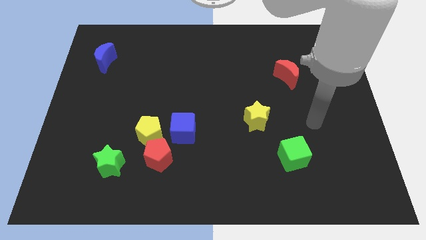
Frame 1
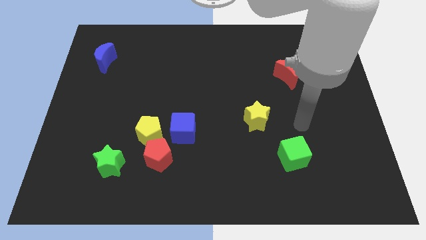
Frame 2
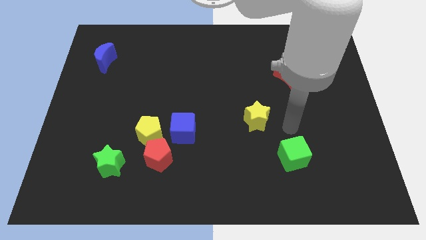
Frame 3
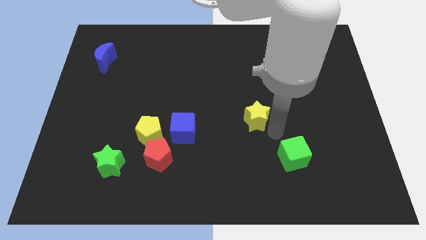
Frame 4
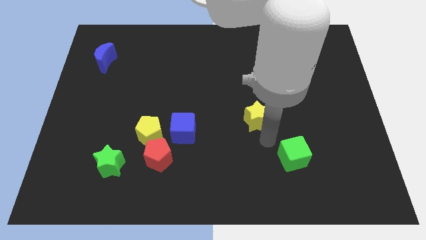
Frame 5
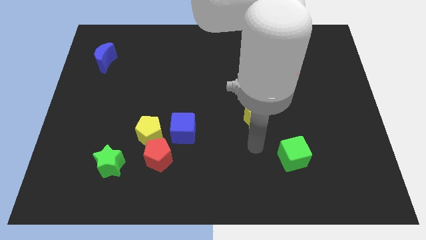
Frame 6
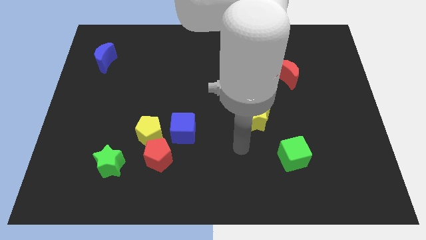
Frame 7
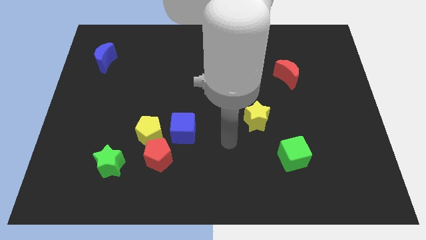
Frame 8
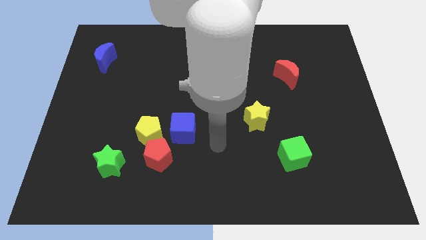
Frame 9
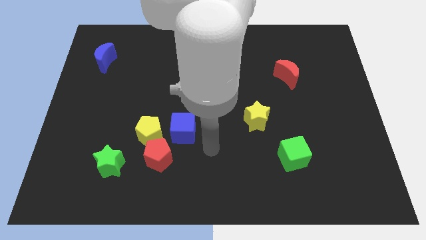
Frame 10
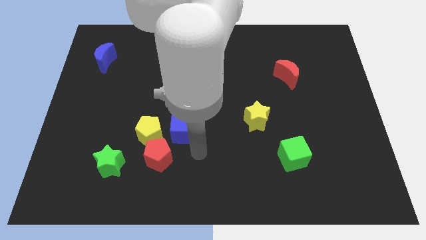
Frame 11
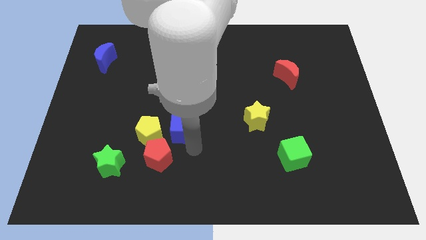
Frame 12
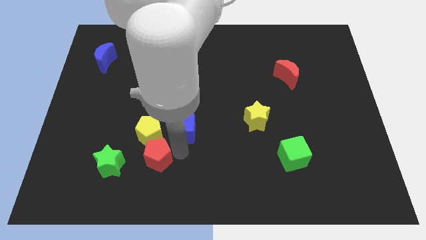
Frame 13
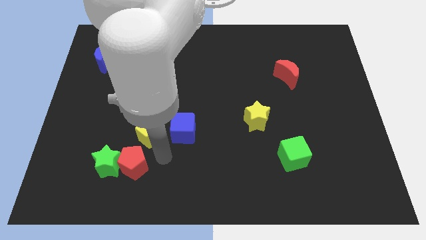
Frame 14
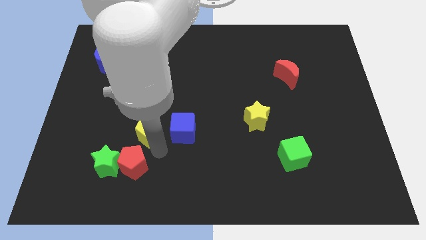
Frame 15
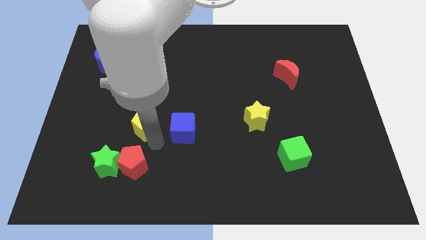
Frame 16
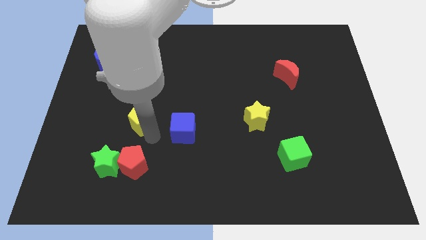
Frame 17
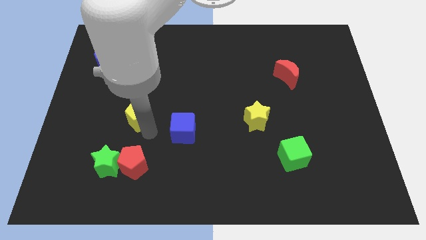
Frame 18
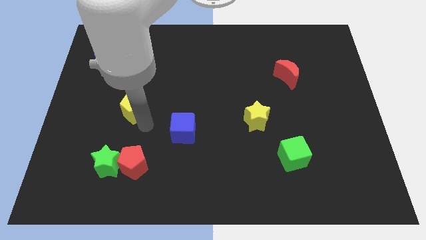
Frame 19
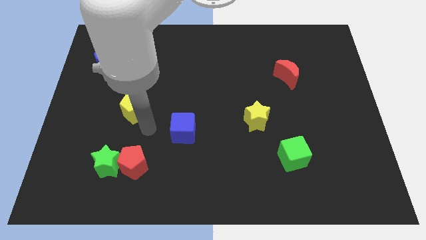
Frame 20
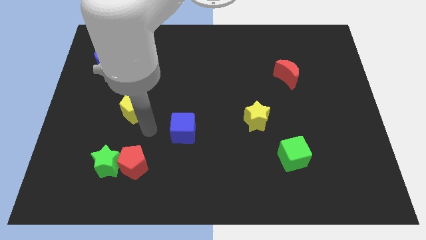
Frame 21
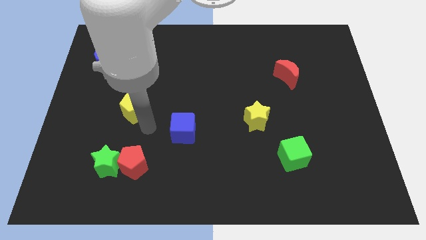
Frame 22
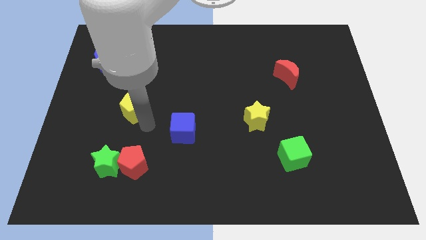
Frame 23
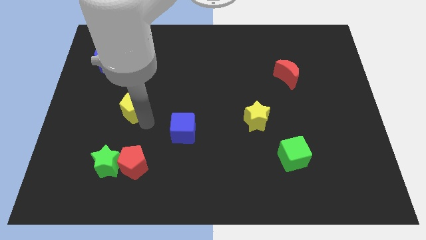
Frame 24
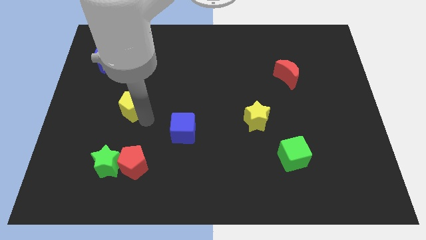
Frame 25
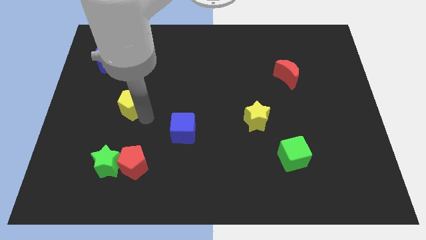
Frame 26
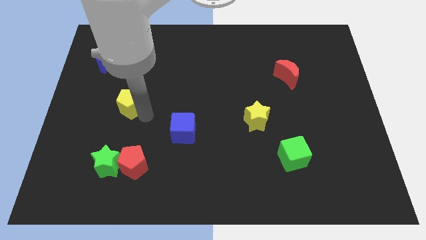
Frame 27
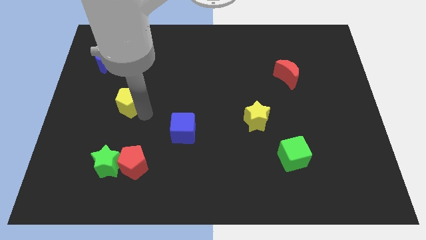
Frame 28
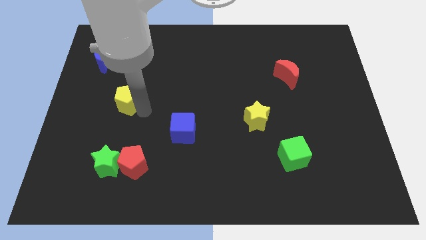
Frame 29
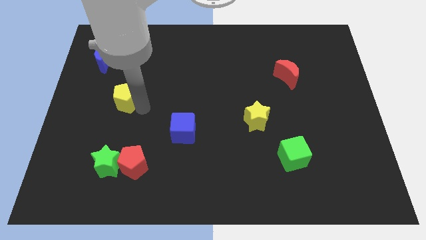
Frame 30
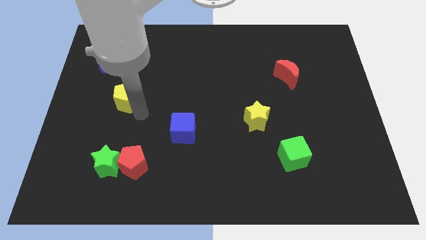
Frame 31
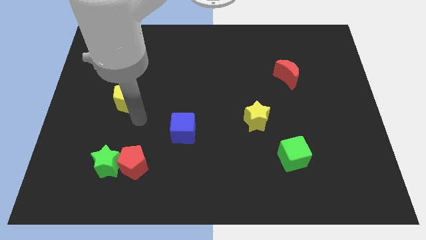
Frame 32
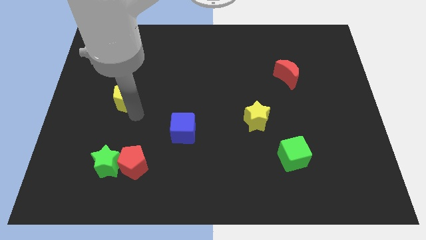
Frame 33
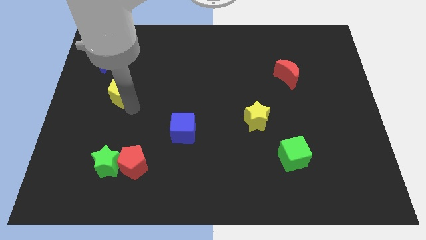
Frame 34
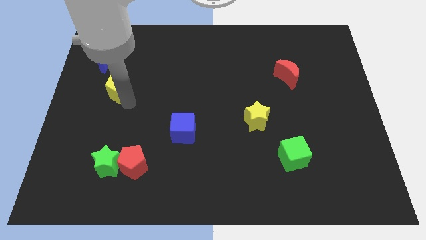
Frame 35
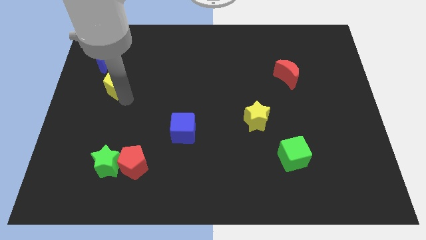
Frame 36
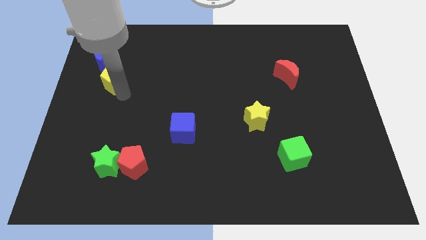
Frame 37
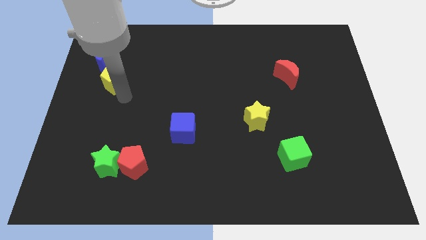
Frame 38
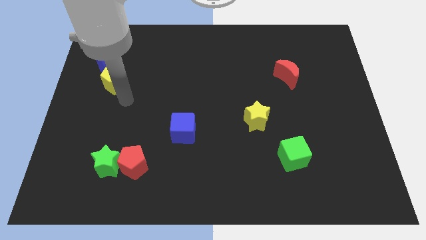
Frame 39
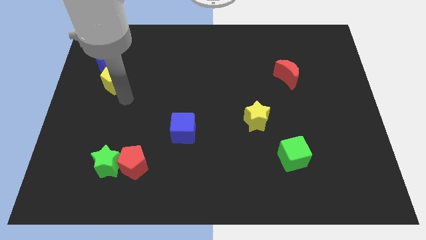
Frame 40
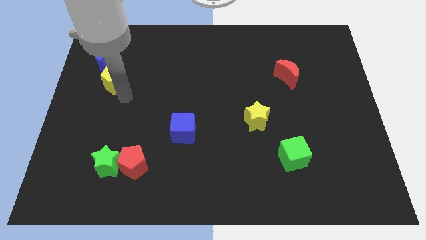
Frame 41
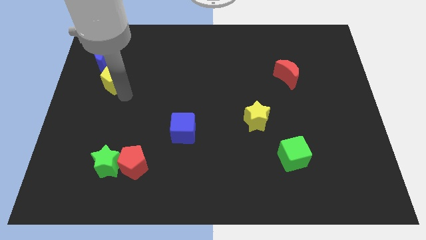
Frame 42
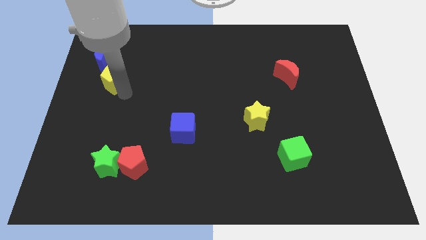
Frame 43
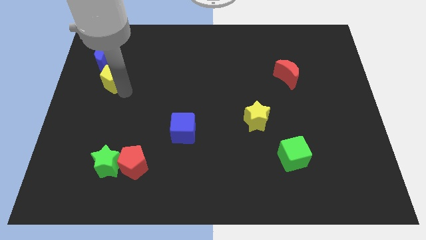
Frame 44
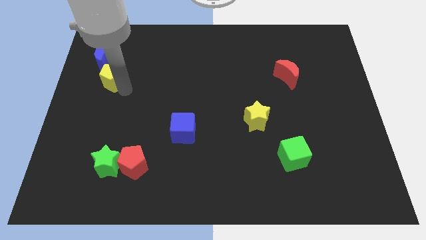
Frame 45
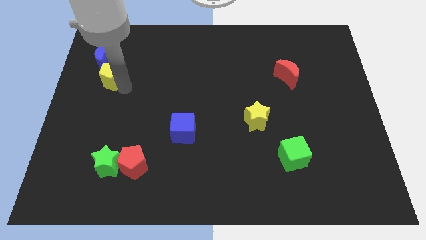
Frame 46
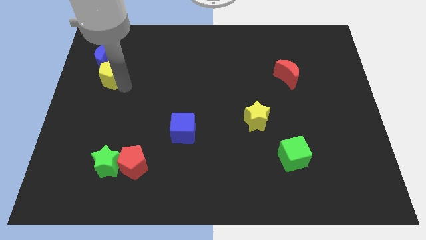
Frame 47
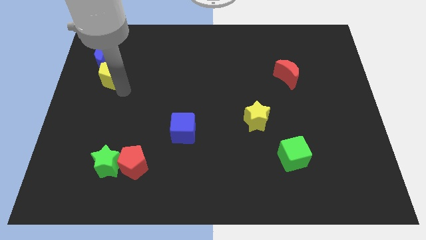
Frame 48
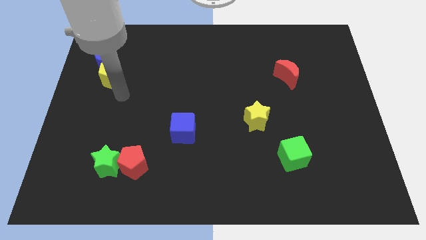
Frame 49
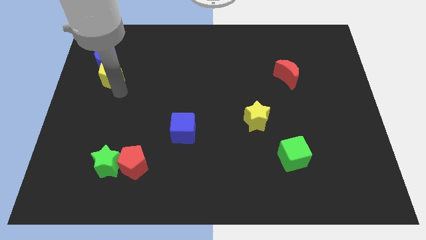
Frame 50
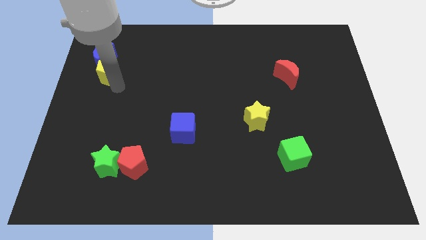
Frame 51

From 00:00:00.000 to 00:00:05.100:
push the yellow pentagon towards the blue moon

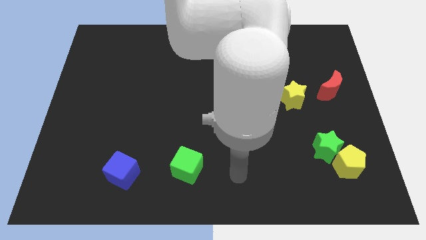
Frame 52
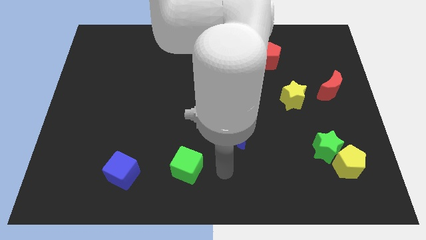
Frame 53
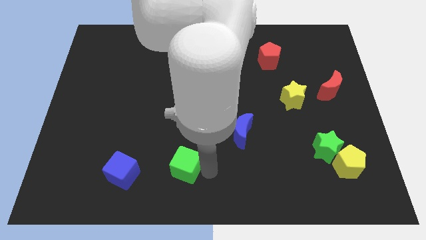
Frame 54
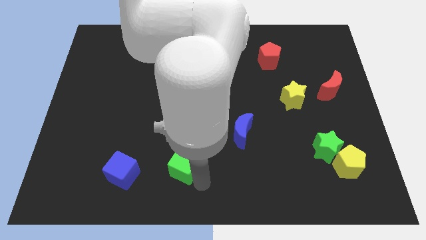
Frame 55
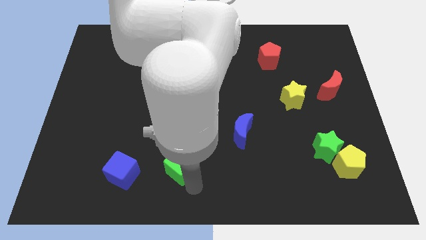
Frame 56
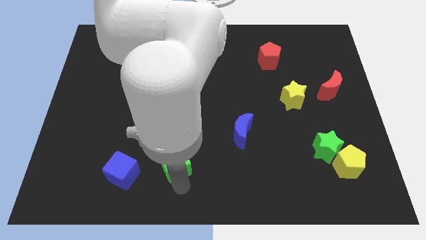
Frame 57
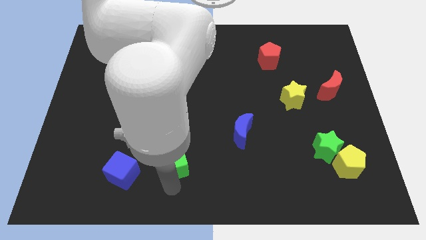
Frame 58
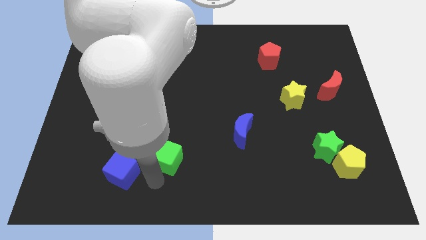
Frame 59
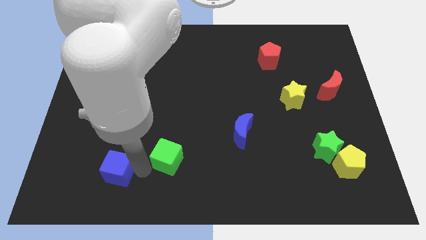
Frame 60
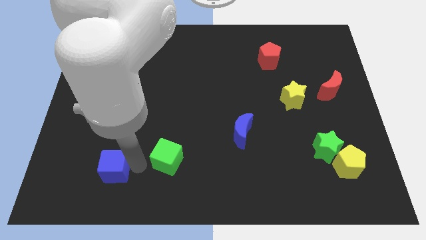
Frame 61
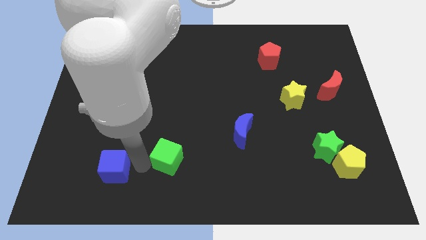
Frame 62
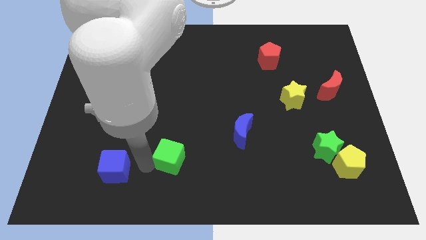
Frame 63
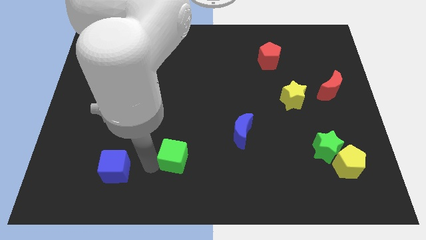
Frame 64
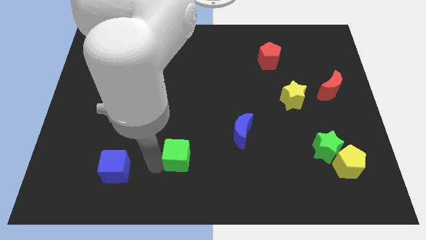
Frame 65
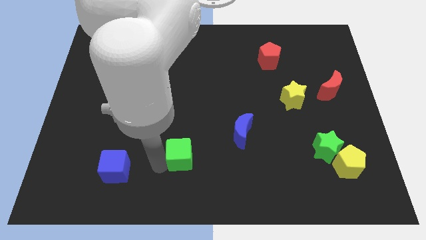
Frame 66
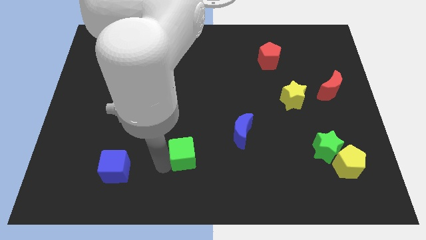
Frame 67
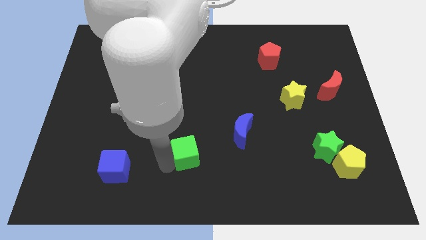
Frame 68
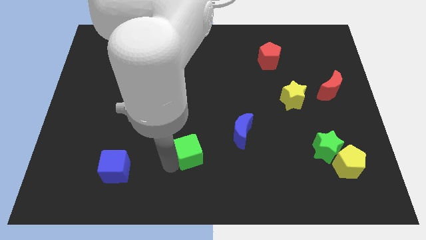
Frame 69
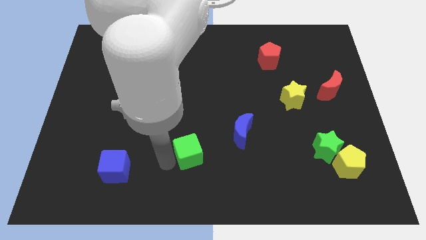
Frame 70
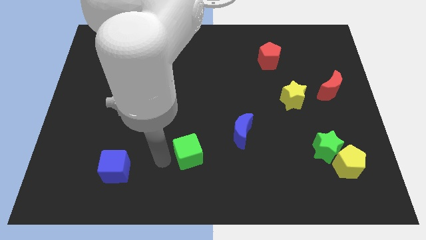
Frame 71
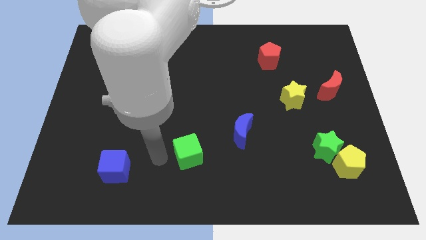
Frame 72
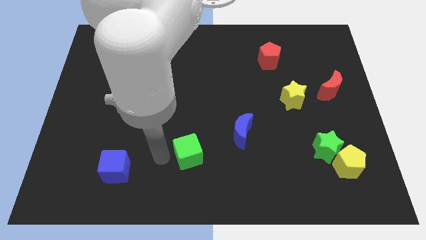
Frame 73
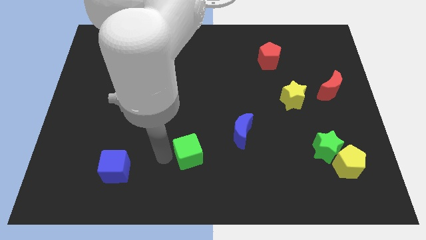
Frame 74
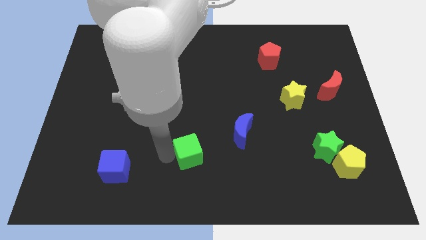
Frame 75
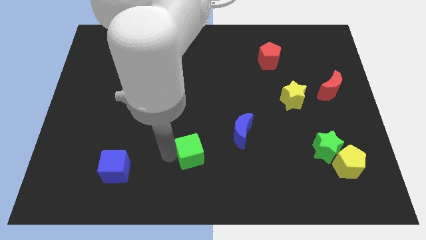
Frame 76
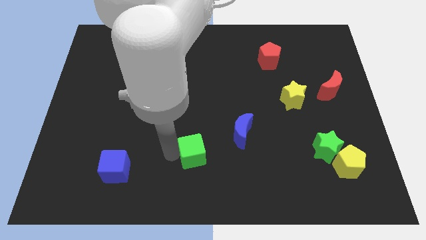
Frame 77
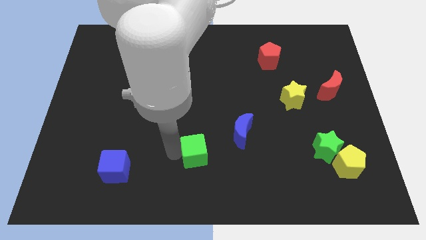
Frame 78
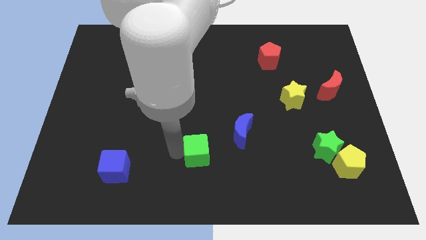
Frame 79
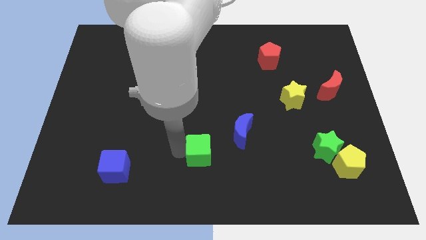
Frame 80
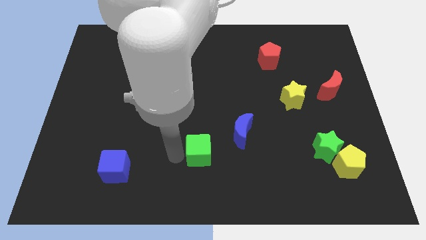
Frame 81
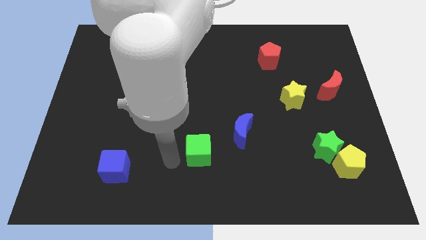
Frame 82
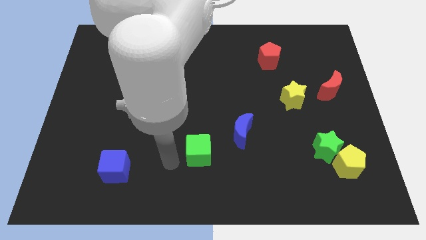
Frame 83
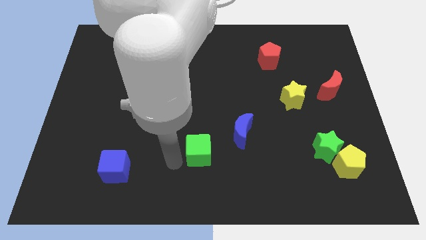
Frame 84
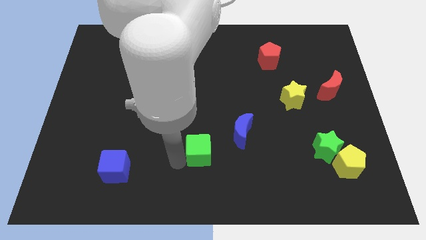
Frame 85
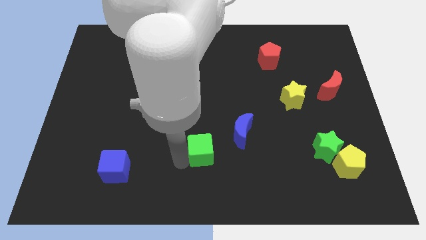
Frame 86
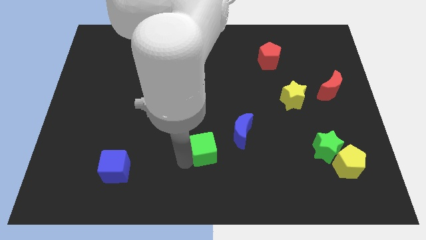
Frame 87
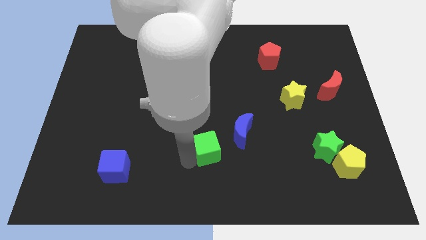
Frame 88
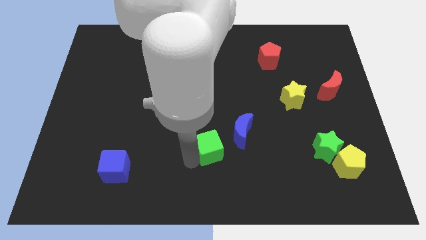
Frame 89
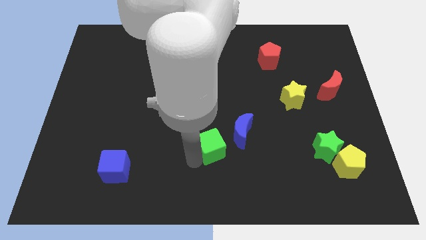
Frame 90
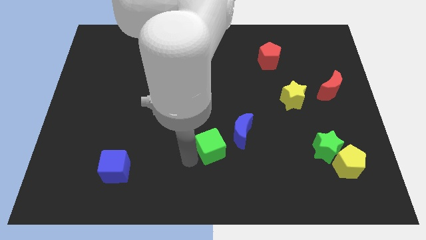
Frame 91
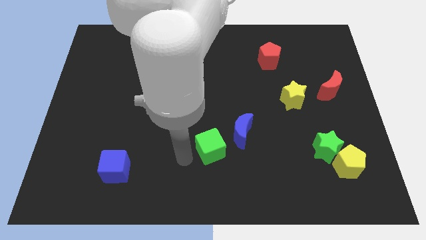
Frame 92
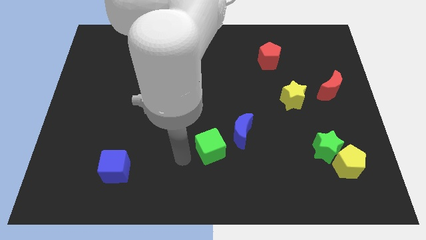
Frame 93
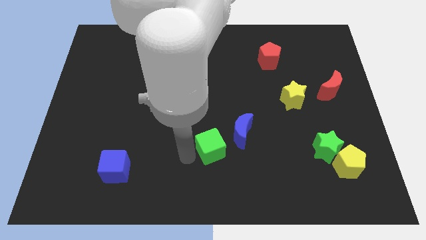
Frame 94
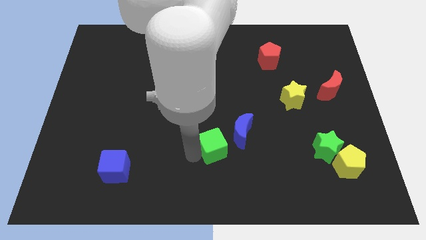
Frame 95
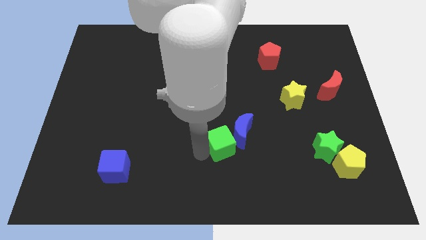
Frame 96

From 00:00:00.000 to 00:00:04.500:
put the green cube next to the blue moon
